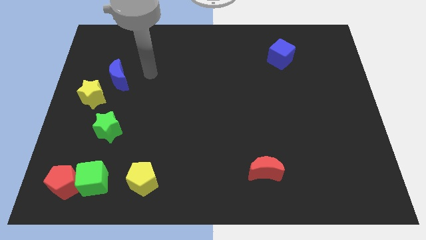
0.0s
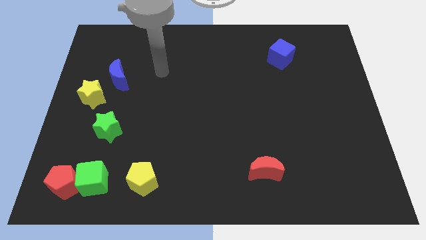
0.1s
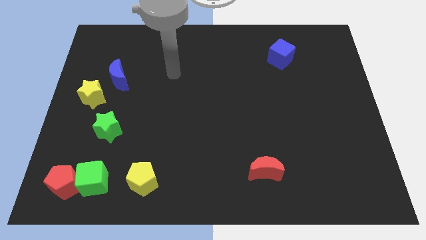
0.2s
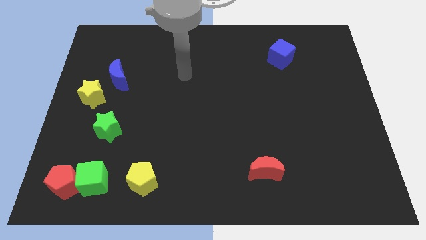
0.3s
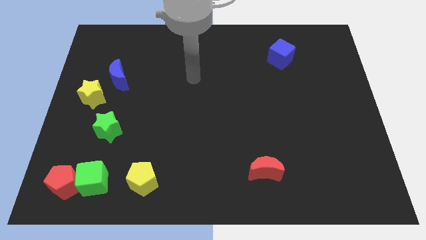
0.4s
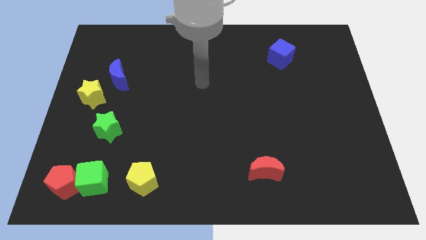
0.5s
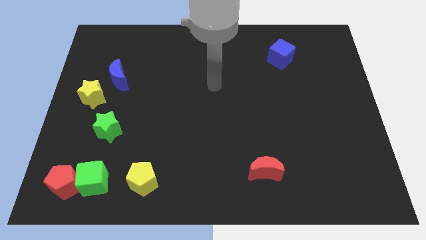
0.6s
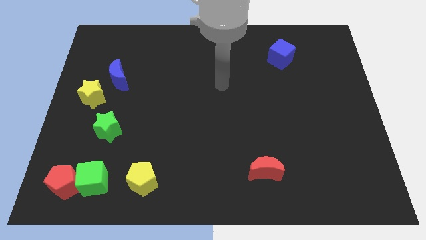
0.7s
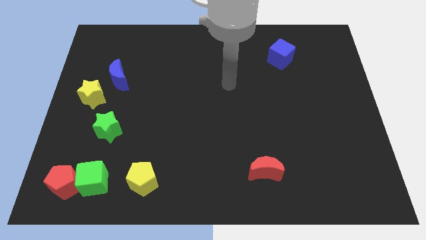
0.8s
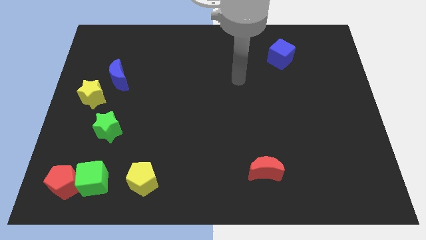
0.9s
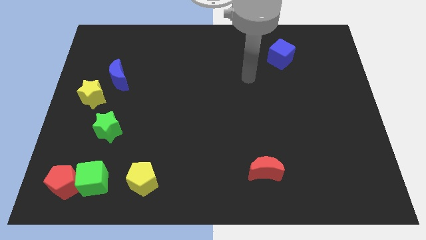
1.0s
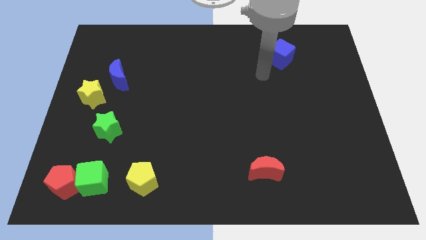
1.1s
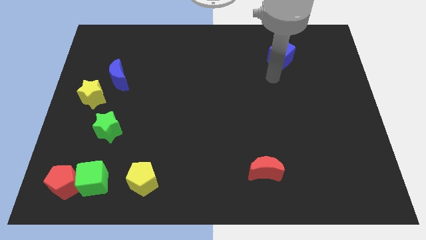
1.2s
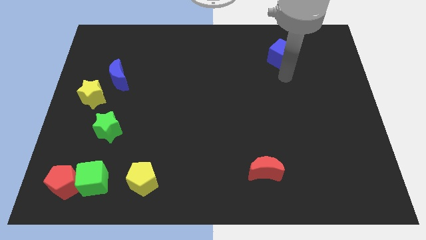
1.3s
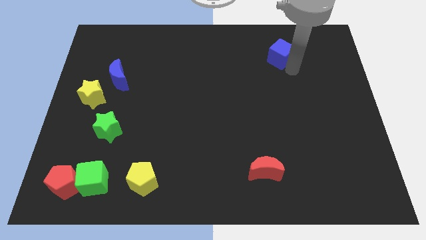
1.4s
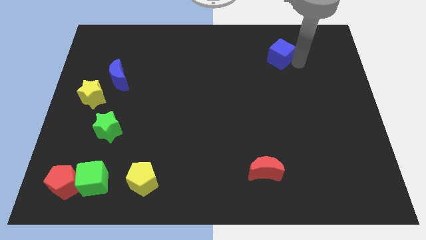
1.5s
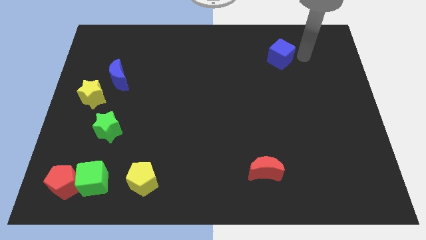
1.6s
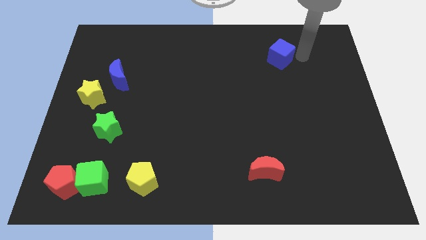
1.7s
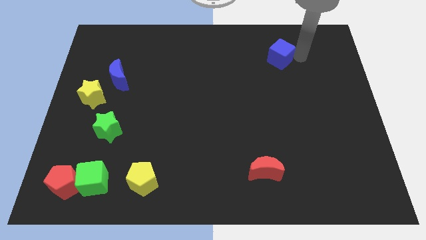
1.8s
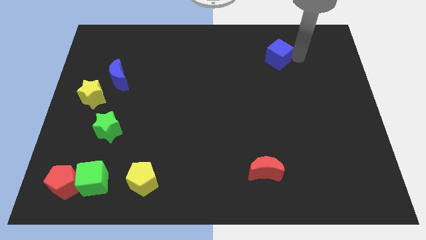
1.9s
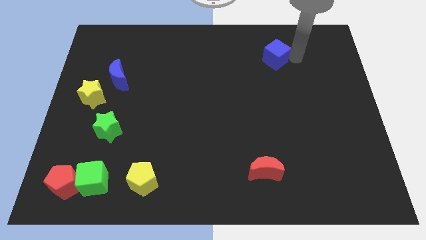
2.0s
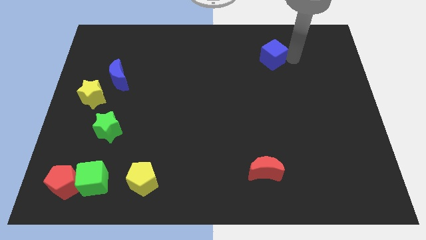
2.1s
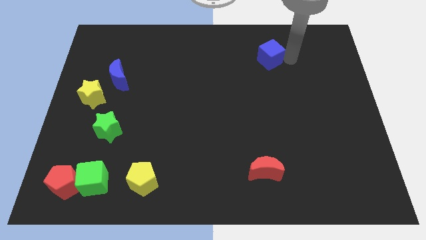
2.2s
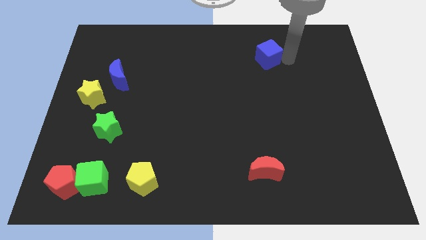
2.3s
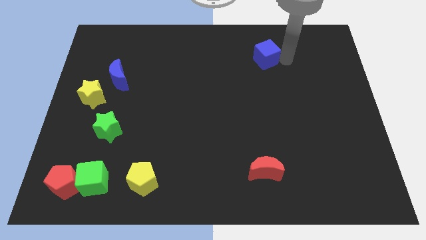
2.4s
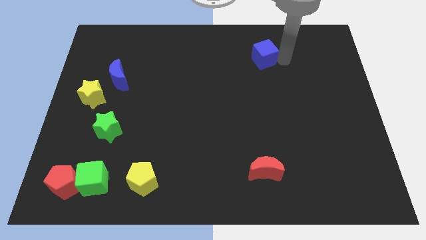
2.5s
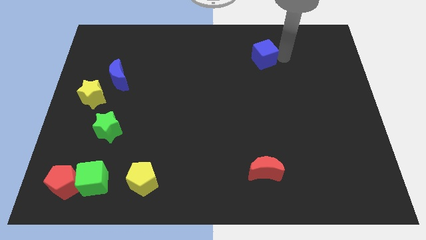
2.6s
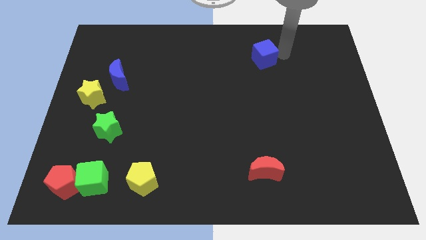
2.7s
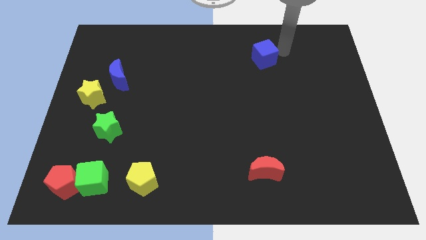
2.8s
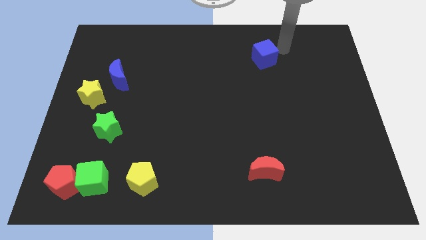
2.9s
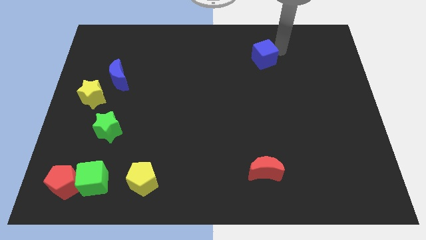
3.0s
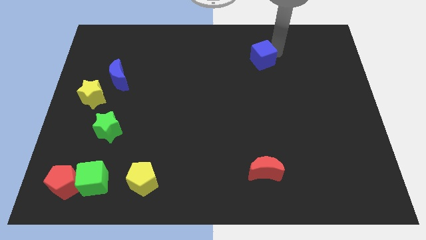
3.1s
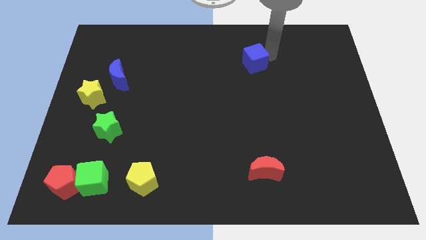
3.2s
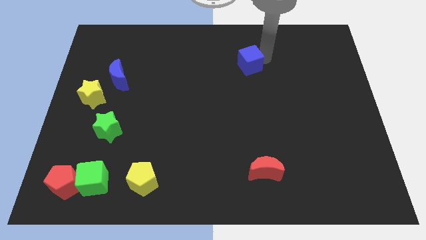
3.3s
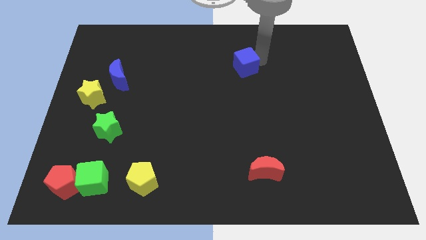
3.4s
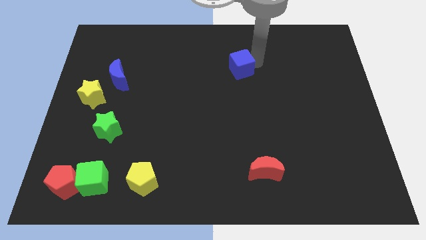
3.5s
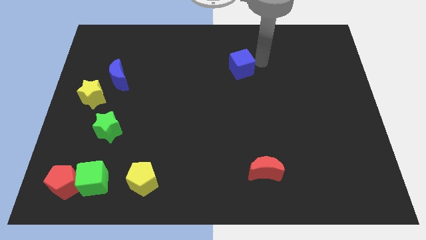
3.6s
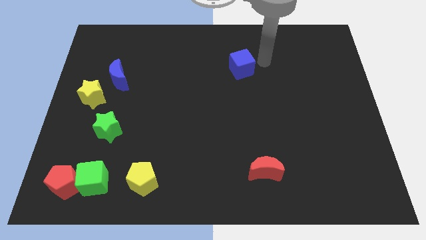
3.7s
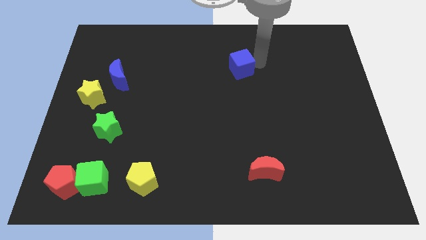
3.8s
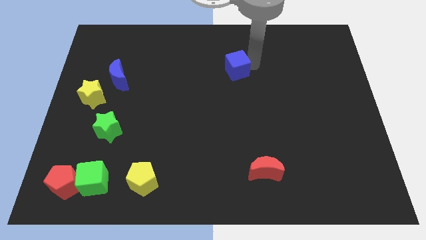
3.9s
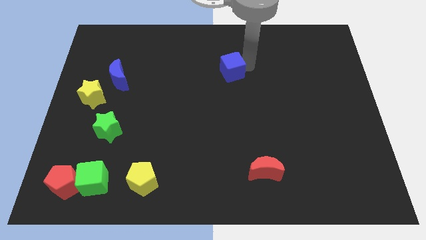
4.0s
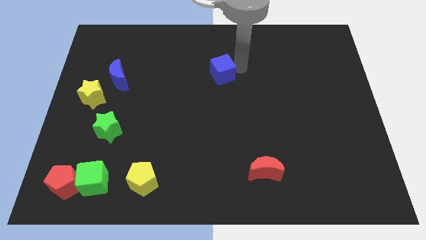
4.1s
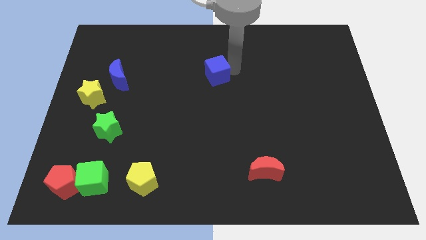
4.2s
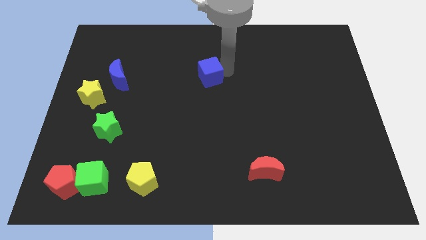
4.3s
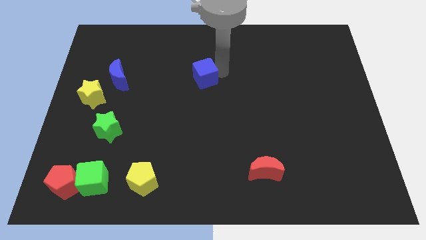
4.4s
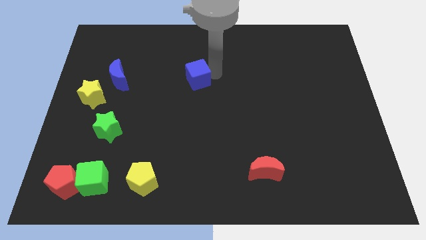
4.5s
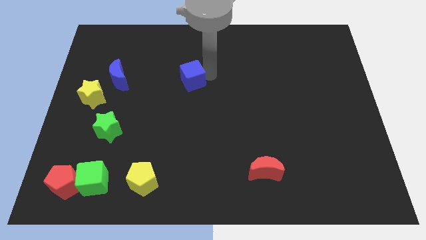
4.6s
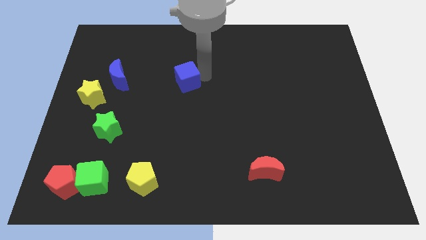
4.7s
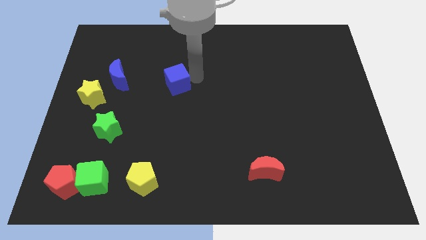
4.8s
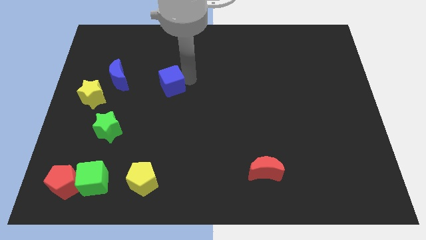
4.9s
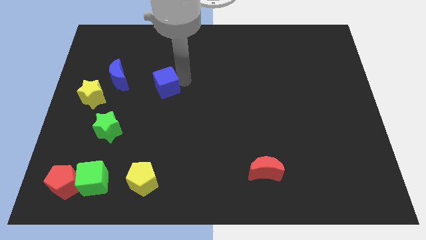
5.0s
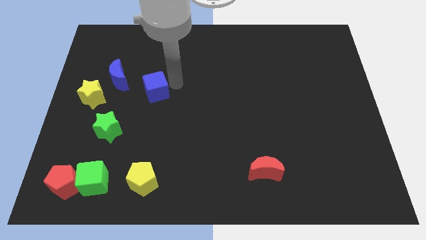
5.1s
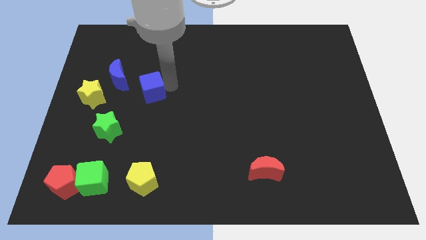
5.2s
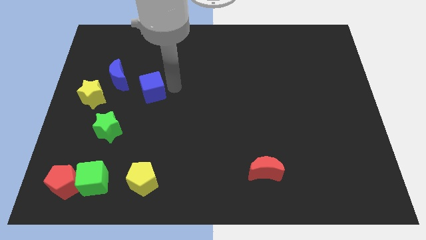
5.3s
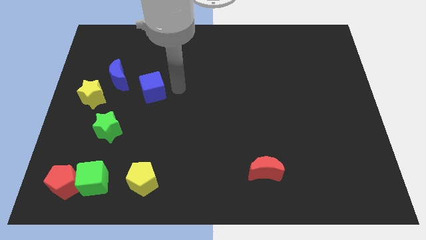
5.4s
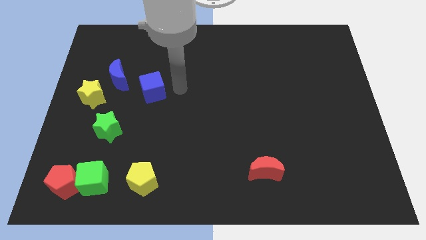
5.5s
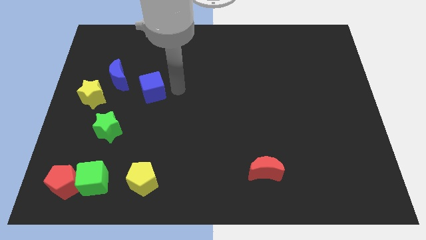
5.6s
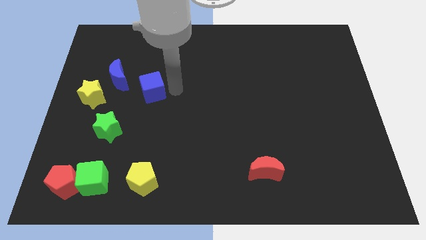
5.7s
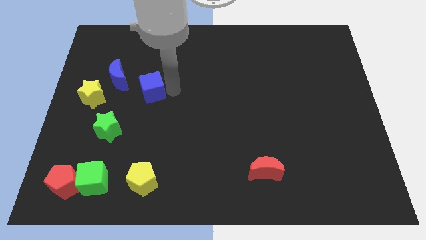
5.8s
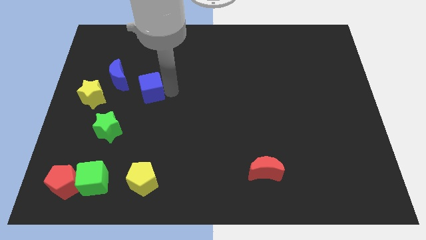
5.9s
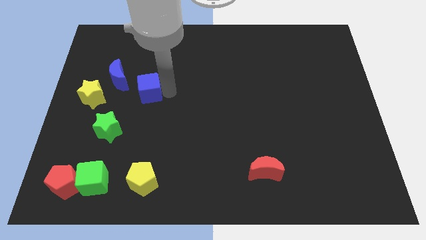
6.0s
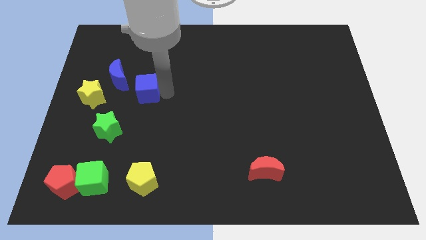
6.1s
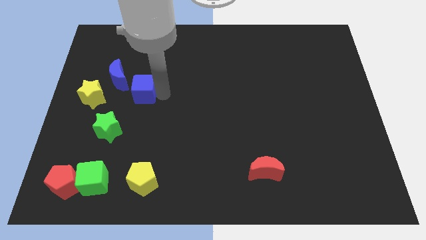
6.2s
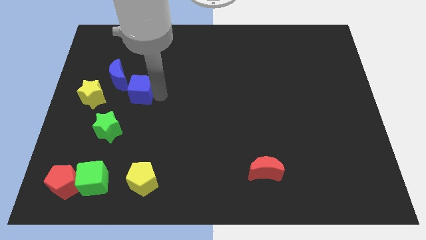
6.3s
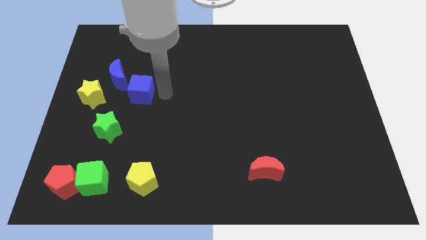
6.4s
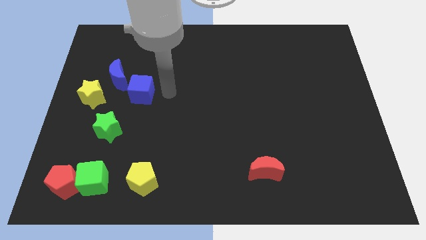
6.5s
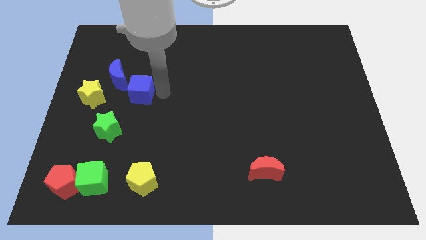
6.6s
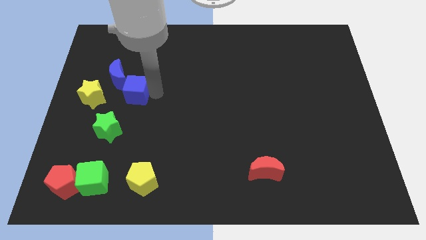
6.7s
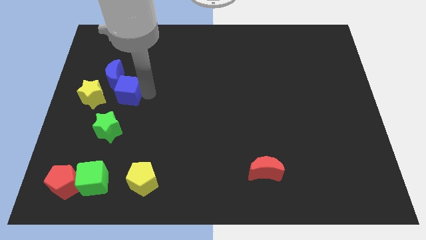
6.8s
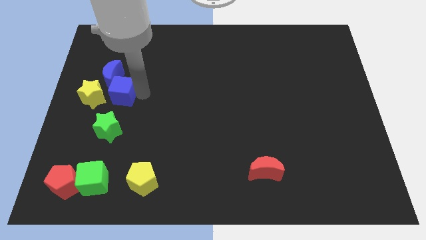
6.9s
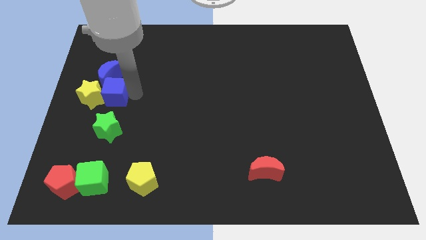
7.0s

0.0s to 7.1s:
move the blue cube next to the yellow star
